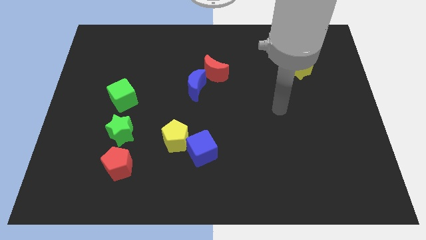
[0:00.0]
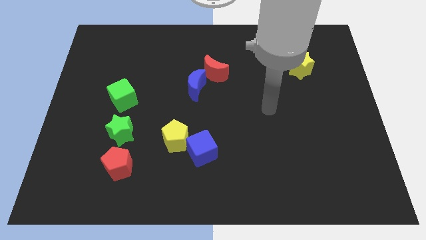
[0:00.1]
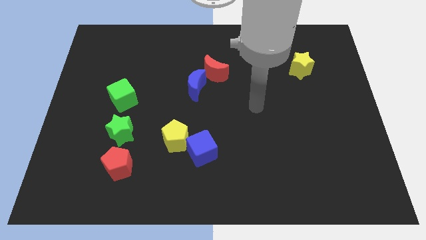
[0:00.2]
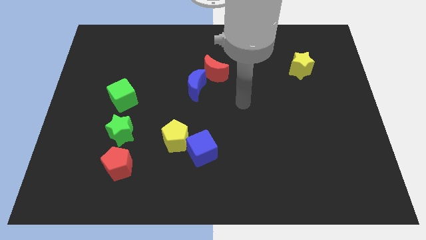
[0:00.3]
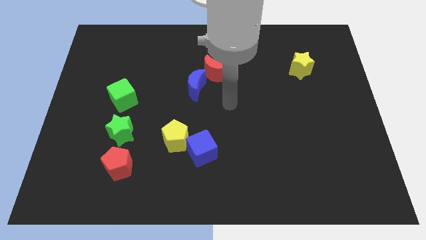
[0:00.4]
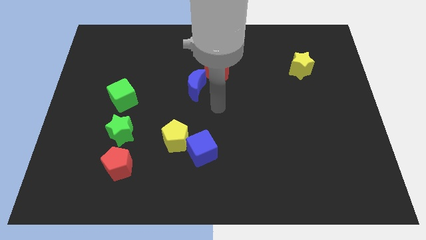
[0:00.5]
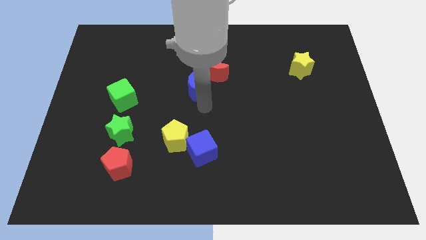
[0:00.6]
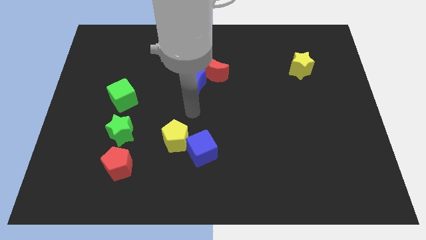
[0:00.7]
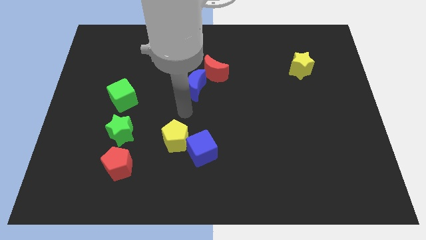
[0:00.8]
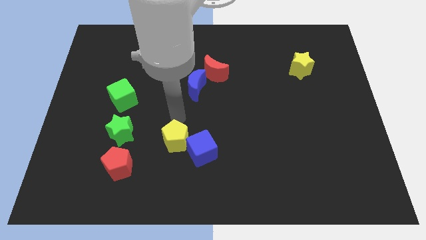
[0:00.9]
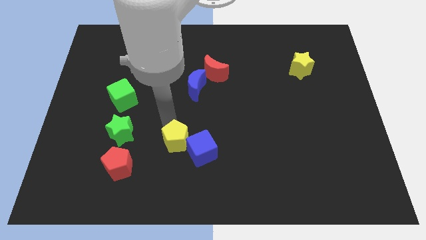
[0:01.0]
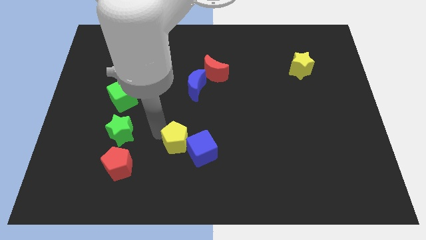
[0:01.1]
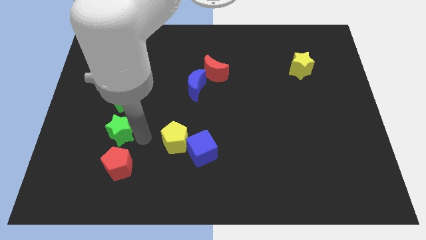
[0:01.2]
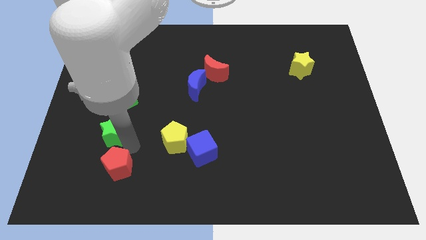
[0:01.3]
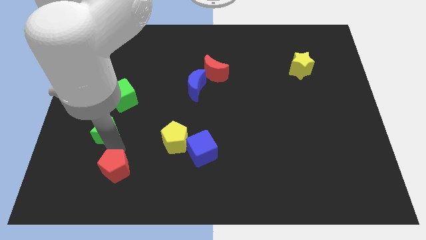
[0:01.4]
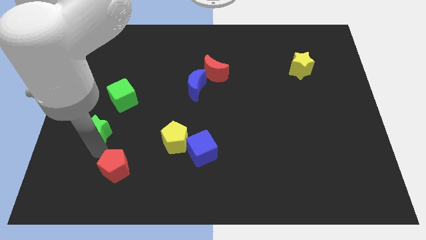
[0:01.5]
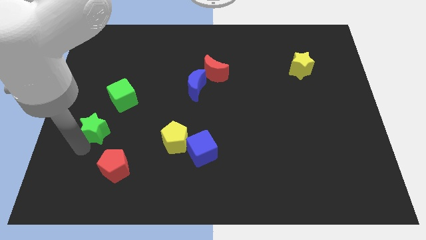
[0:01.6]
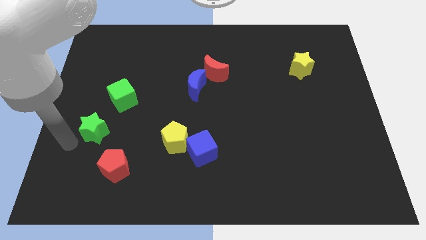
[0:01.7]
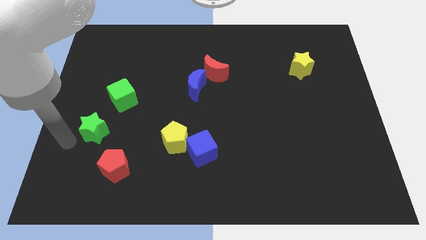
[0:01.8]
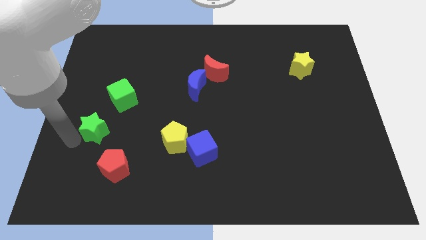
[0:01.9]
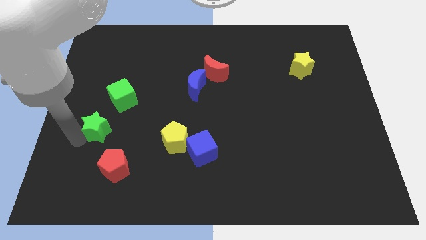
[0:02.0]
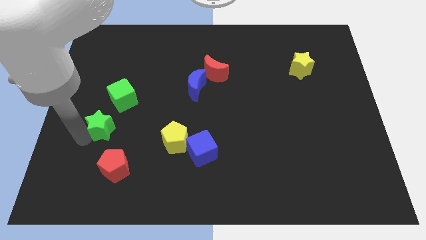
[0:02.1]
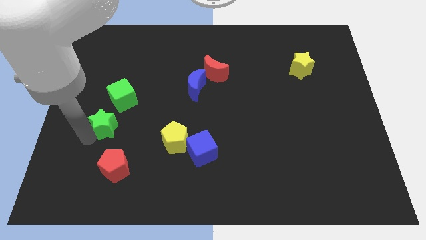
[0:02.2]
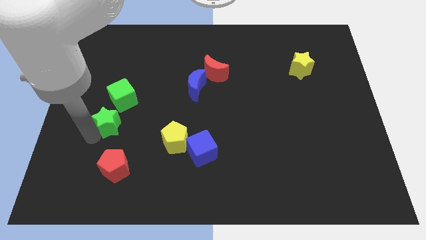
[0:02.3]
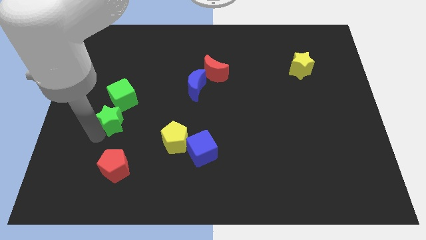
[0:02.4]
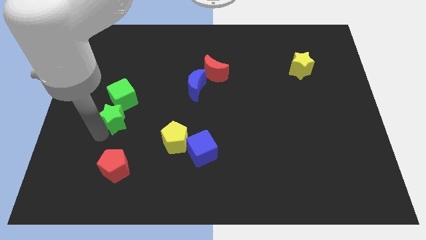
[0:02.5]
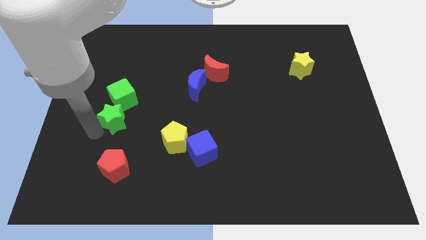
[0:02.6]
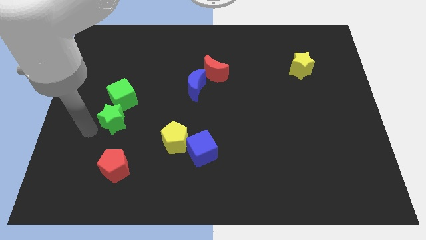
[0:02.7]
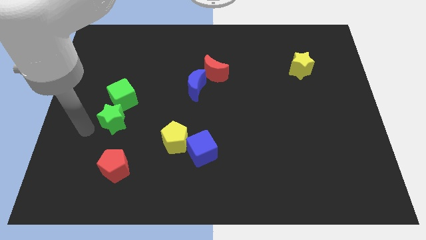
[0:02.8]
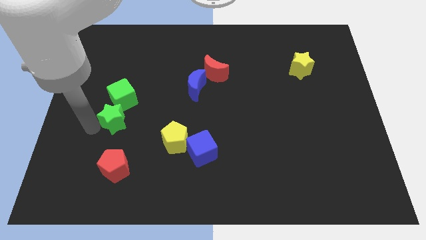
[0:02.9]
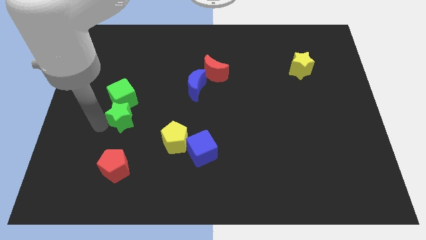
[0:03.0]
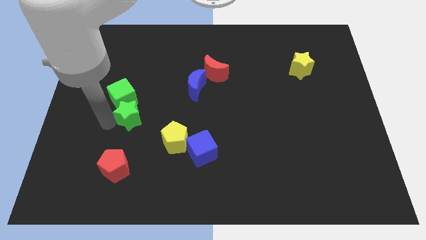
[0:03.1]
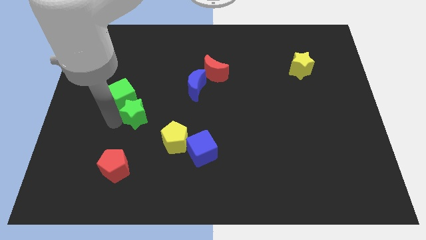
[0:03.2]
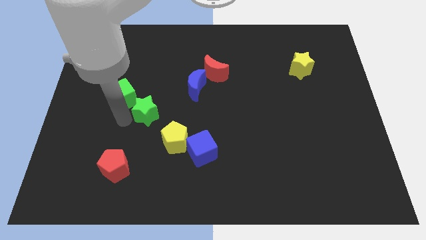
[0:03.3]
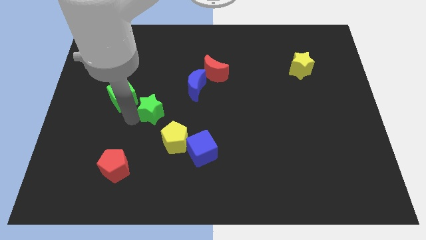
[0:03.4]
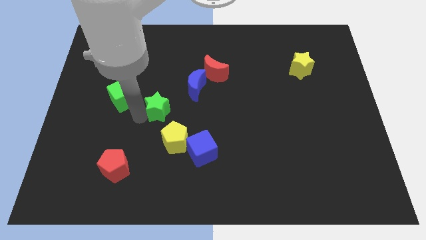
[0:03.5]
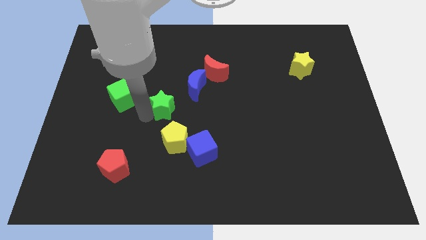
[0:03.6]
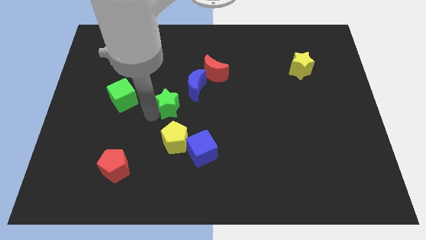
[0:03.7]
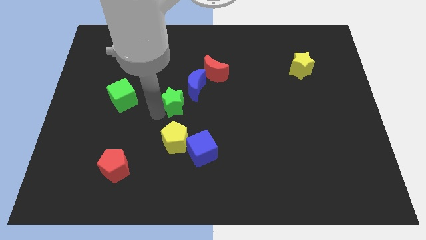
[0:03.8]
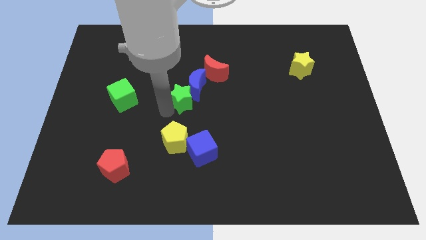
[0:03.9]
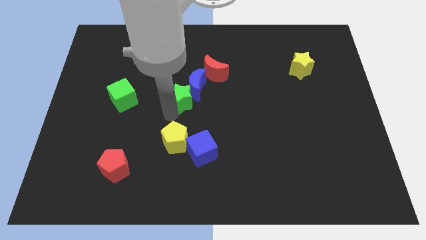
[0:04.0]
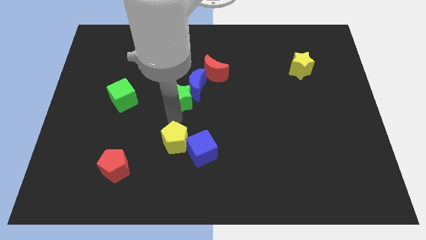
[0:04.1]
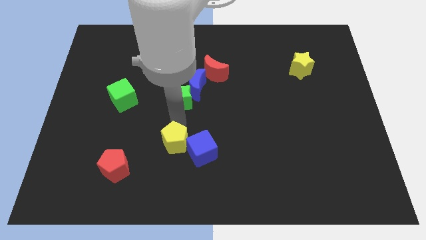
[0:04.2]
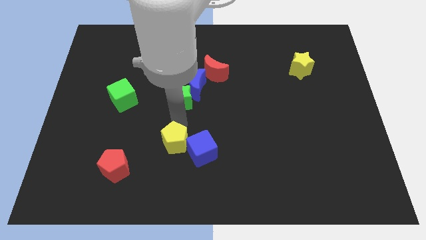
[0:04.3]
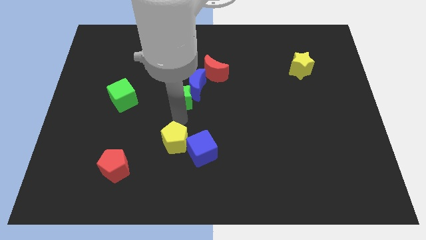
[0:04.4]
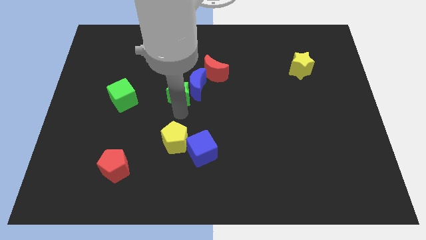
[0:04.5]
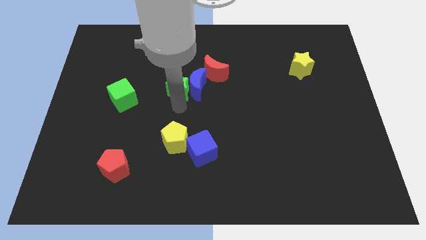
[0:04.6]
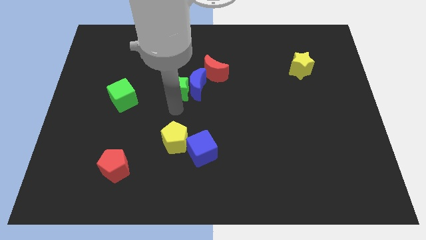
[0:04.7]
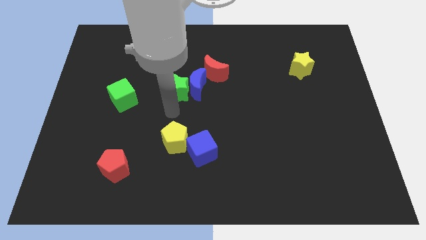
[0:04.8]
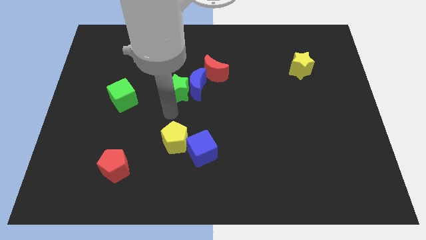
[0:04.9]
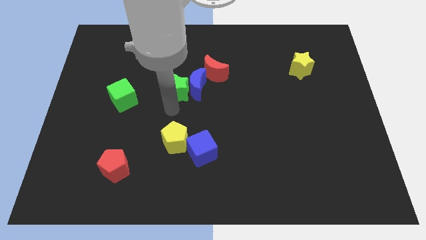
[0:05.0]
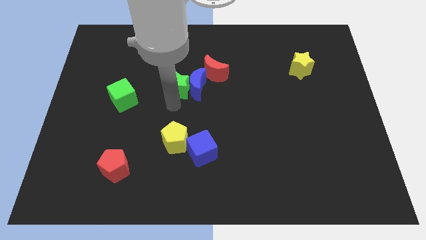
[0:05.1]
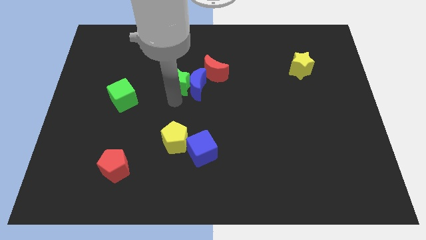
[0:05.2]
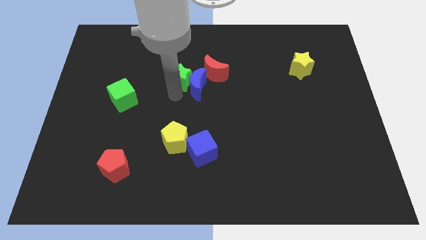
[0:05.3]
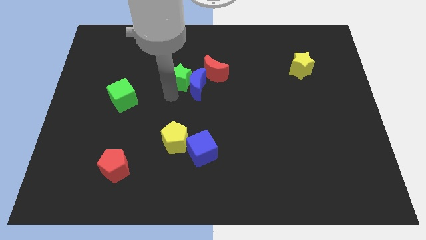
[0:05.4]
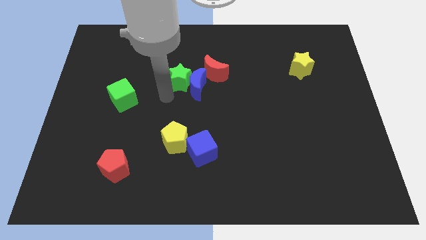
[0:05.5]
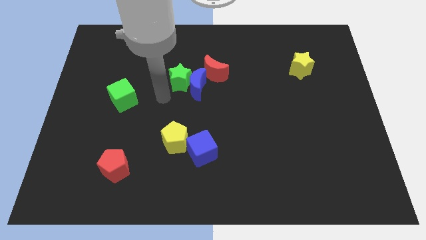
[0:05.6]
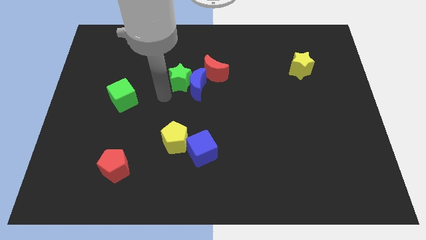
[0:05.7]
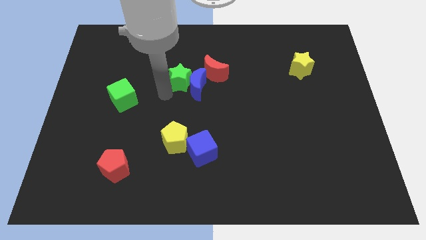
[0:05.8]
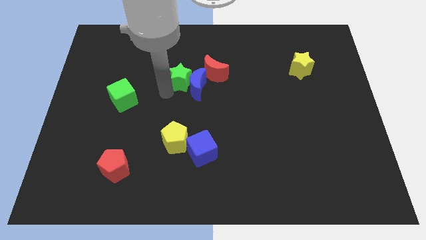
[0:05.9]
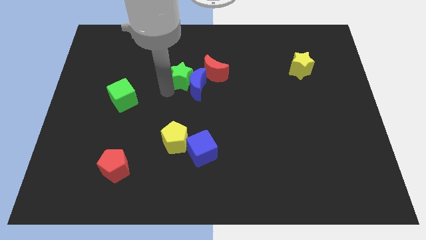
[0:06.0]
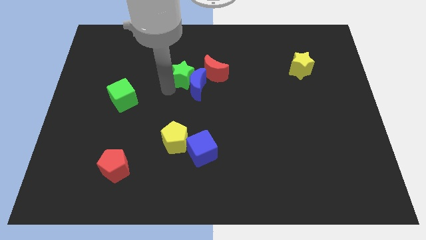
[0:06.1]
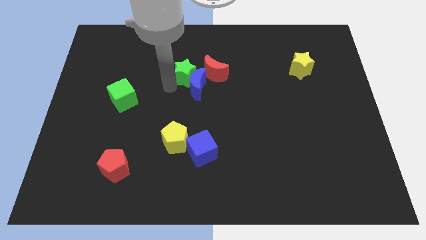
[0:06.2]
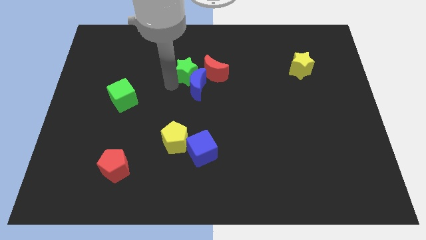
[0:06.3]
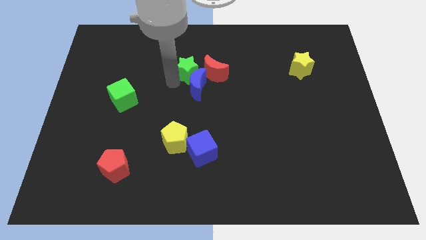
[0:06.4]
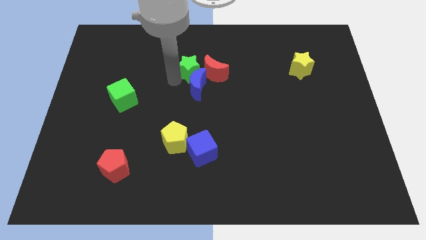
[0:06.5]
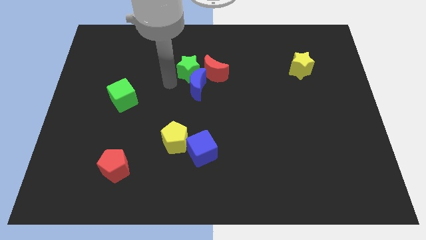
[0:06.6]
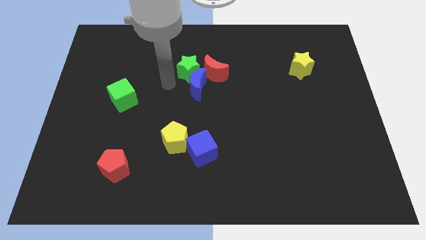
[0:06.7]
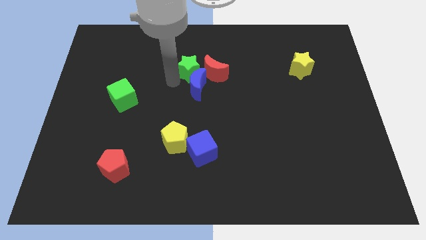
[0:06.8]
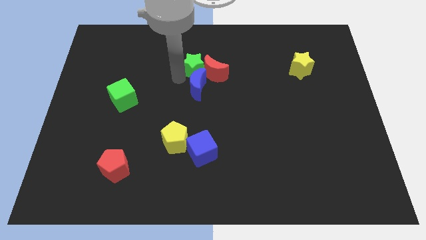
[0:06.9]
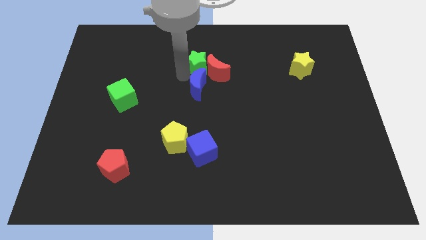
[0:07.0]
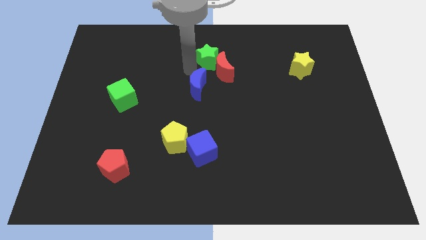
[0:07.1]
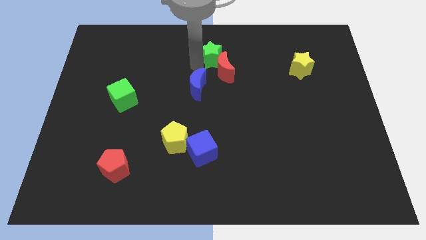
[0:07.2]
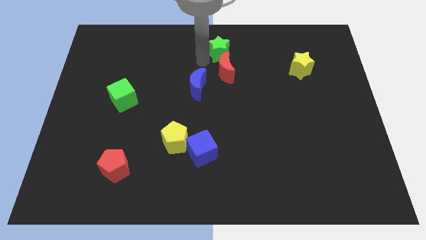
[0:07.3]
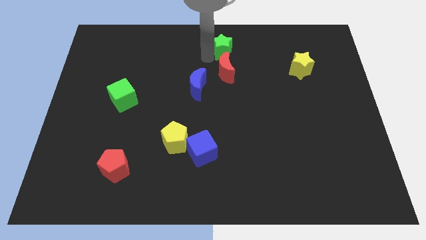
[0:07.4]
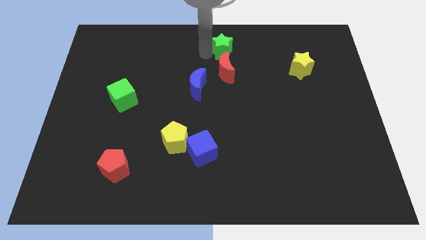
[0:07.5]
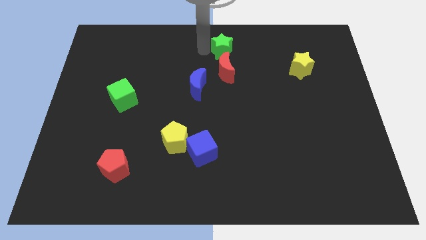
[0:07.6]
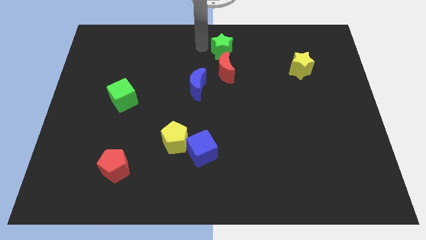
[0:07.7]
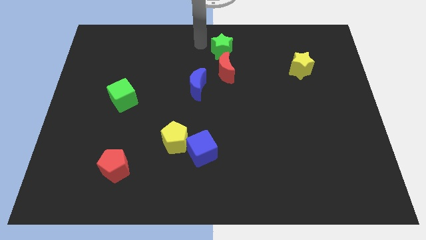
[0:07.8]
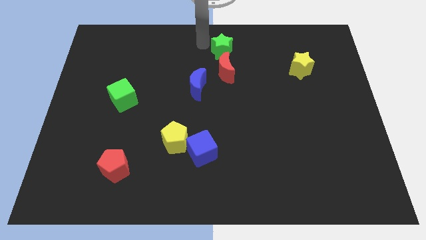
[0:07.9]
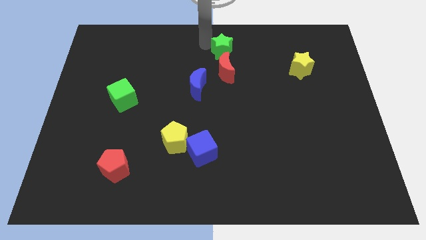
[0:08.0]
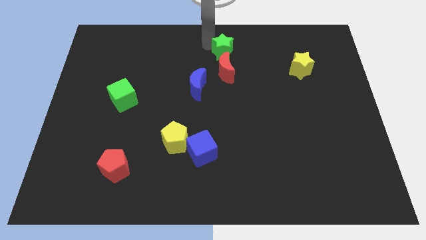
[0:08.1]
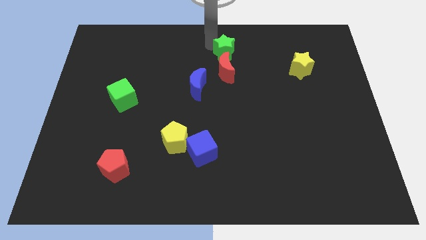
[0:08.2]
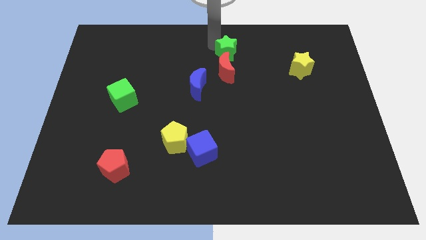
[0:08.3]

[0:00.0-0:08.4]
move the green star diagonally up and to the right of the red moon
